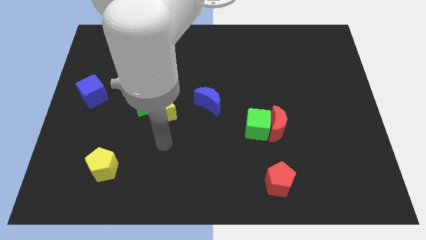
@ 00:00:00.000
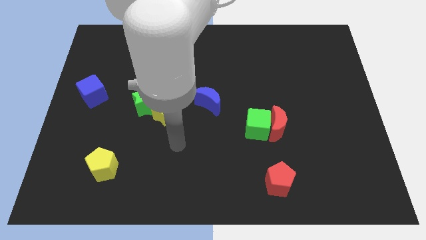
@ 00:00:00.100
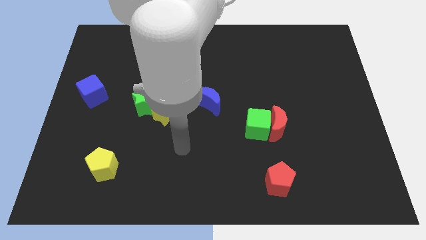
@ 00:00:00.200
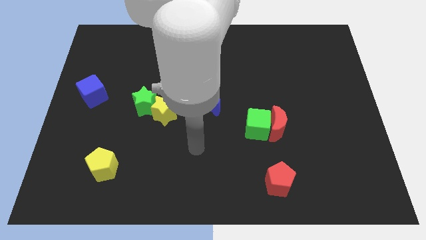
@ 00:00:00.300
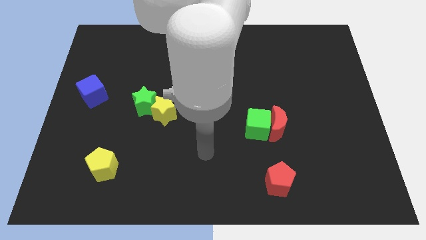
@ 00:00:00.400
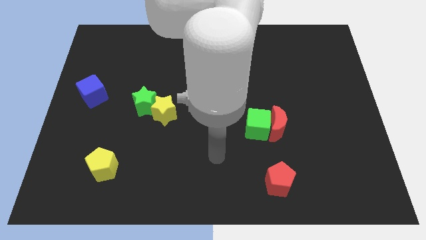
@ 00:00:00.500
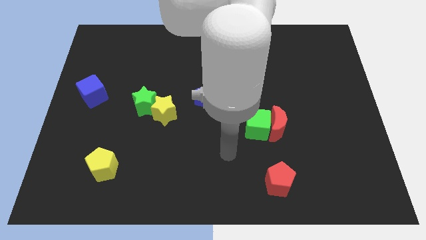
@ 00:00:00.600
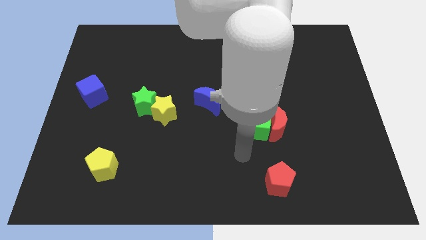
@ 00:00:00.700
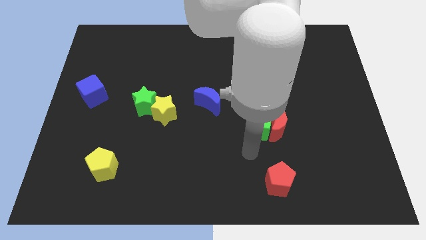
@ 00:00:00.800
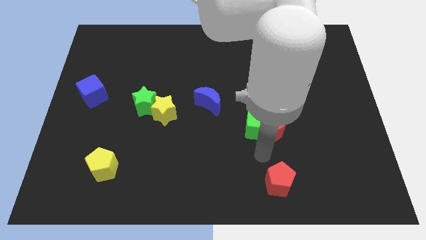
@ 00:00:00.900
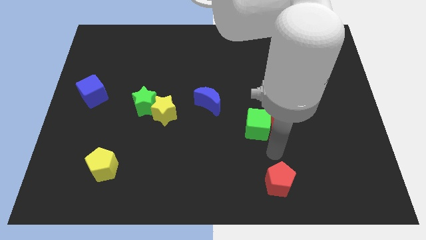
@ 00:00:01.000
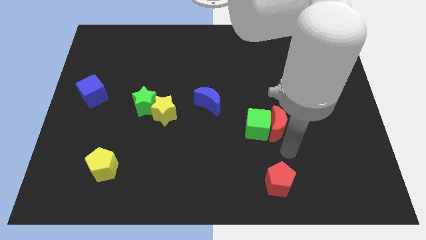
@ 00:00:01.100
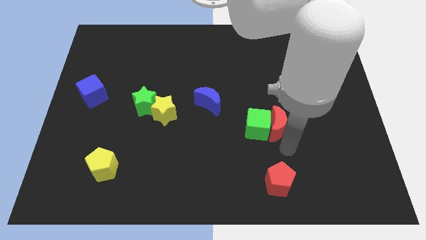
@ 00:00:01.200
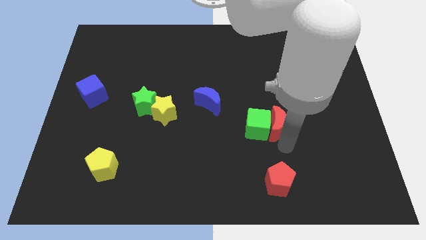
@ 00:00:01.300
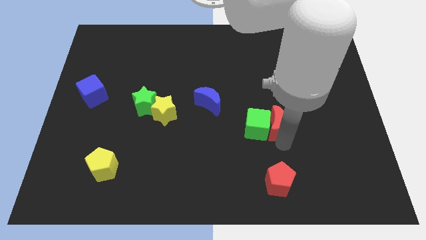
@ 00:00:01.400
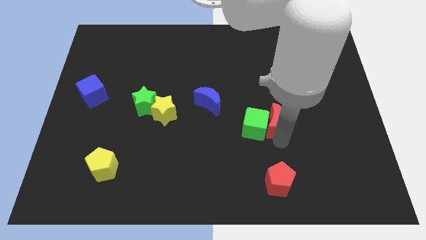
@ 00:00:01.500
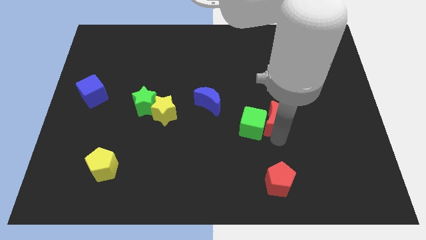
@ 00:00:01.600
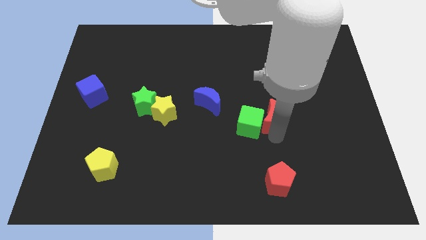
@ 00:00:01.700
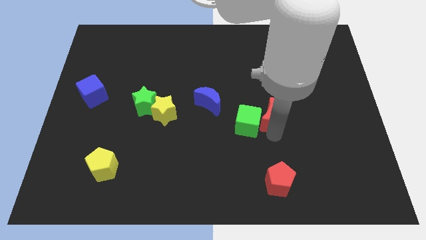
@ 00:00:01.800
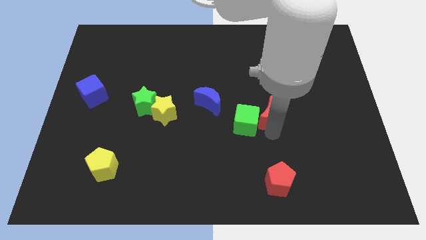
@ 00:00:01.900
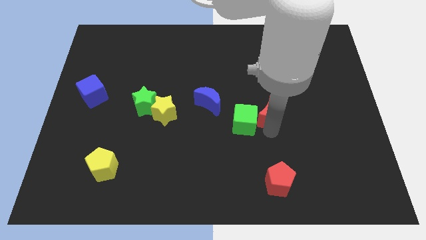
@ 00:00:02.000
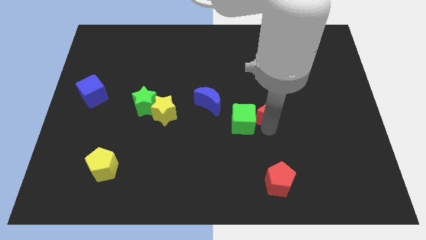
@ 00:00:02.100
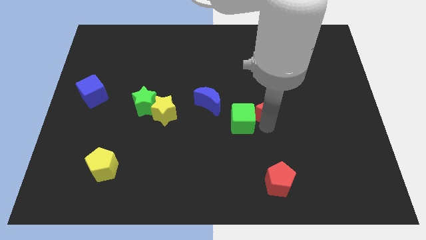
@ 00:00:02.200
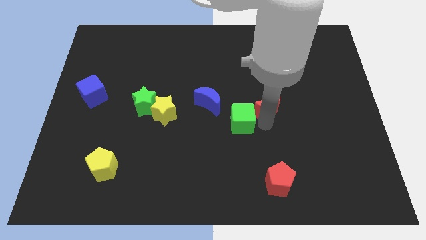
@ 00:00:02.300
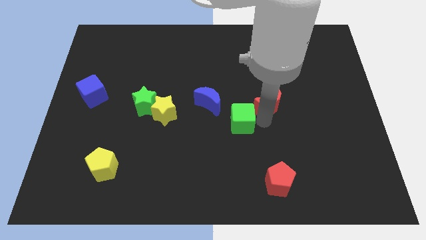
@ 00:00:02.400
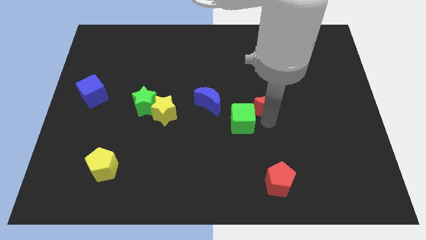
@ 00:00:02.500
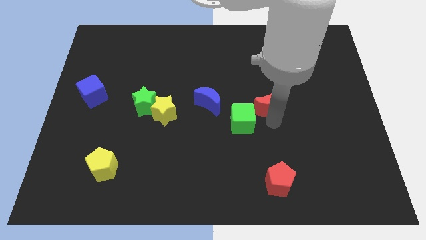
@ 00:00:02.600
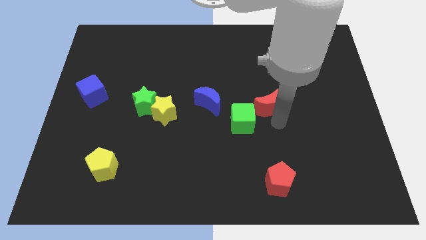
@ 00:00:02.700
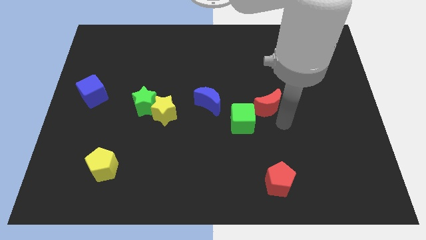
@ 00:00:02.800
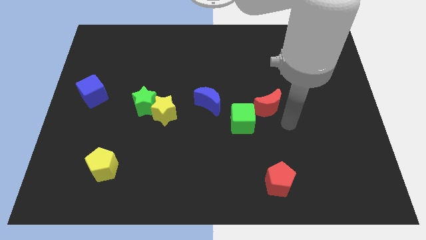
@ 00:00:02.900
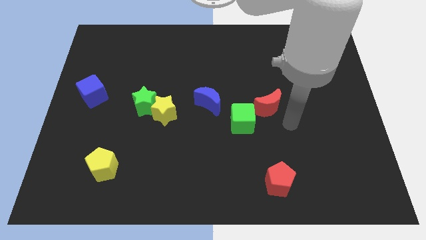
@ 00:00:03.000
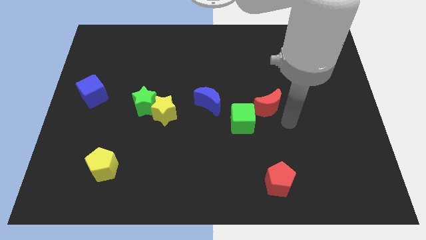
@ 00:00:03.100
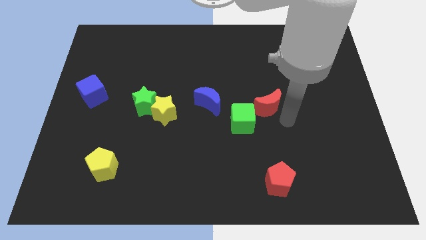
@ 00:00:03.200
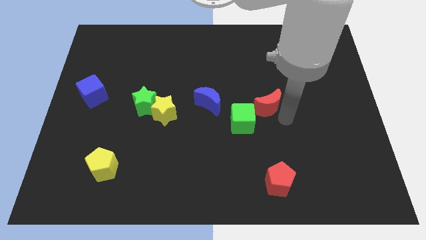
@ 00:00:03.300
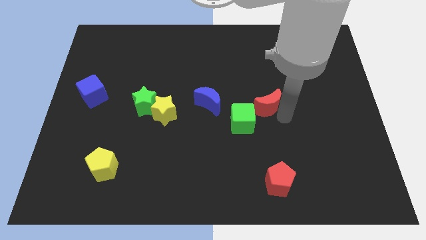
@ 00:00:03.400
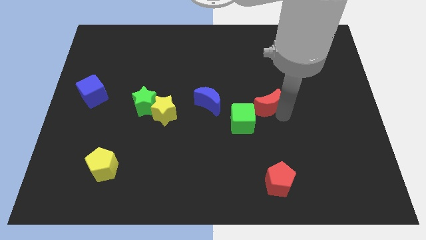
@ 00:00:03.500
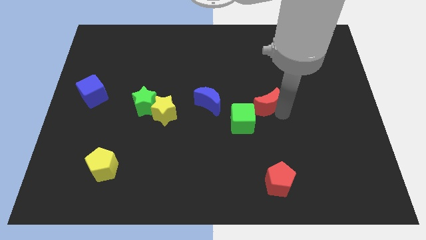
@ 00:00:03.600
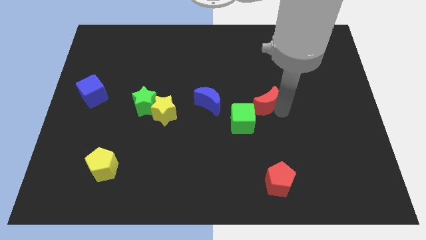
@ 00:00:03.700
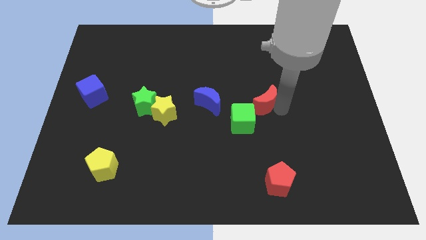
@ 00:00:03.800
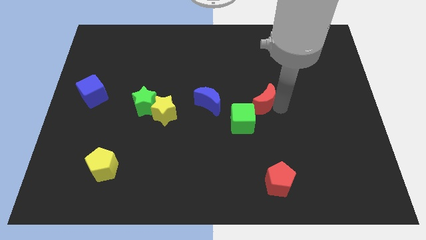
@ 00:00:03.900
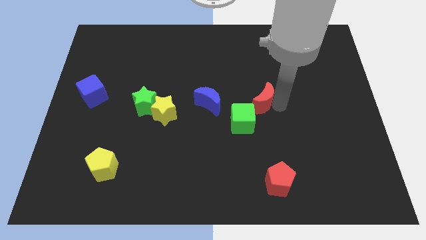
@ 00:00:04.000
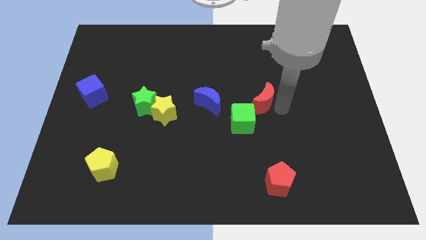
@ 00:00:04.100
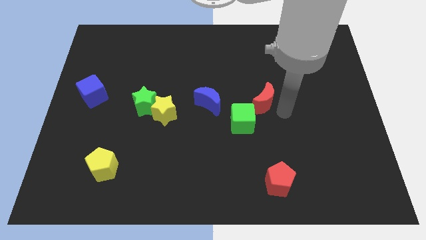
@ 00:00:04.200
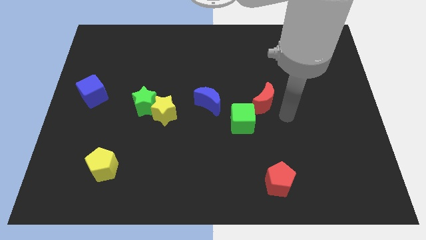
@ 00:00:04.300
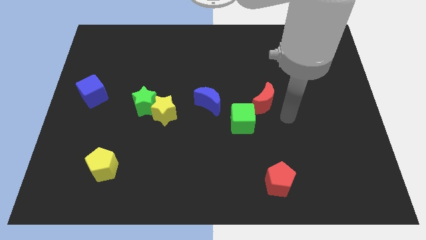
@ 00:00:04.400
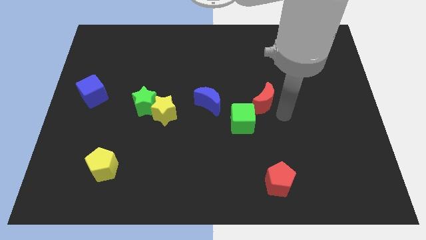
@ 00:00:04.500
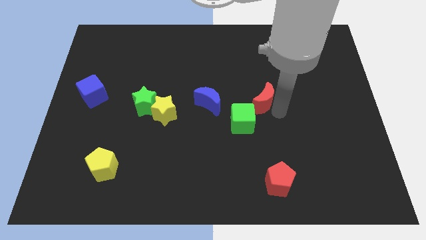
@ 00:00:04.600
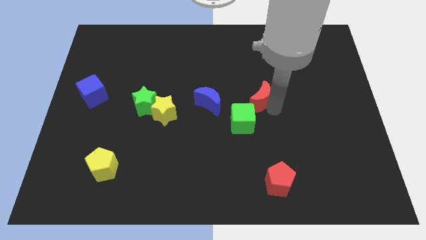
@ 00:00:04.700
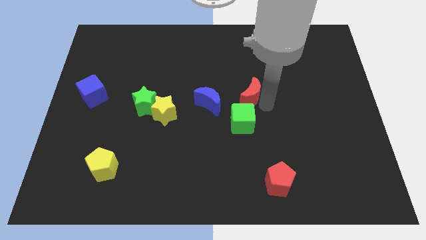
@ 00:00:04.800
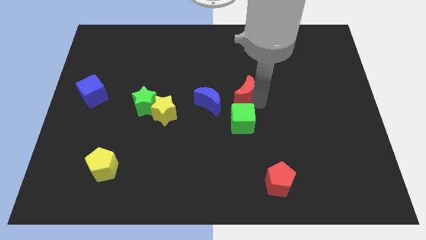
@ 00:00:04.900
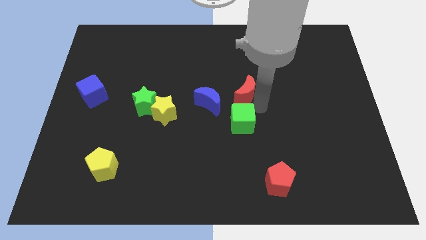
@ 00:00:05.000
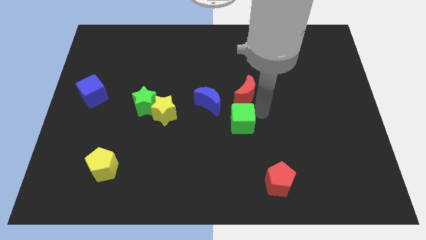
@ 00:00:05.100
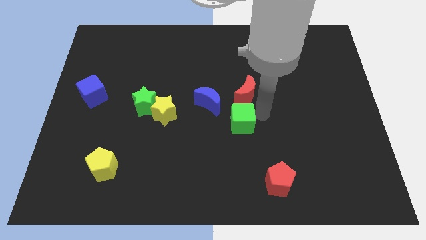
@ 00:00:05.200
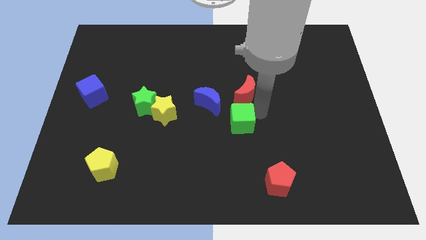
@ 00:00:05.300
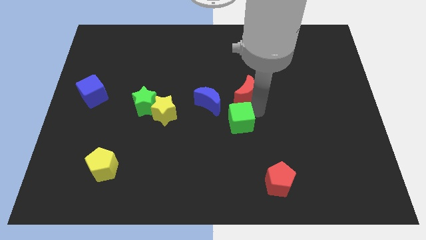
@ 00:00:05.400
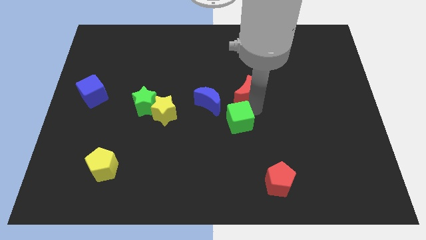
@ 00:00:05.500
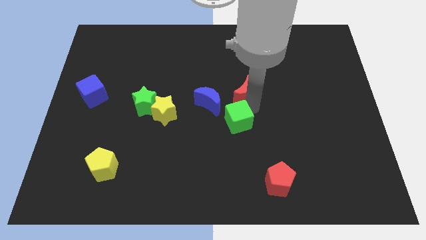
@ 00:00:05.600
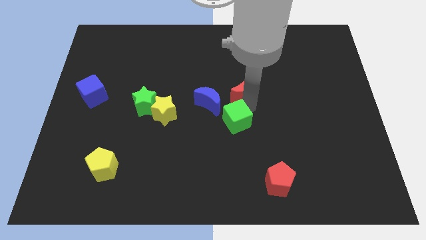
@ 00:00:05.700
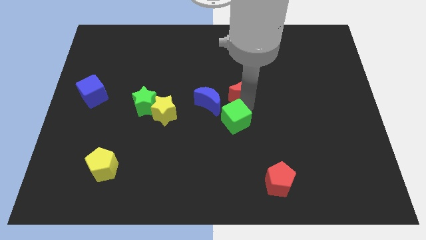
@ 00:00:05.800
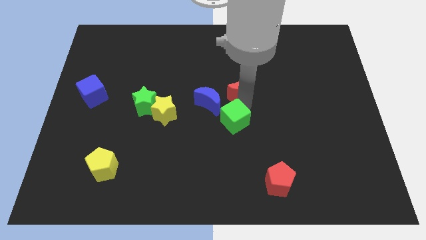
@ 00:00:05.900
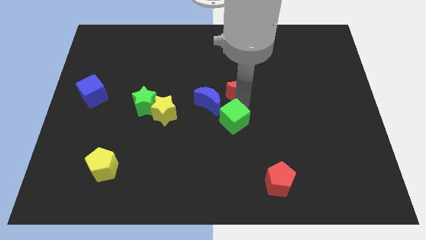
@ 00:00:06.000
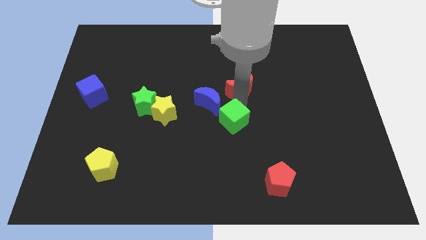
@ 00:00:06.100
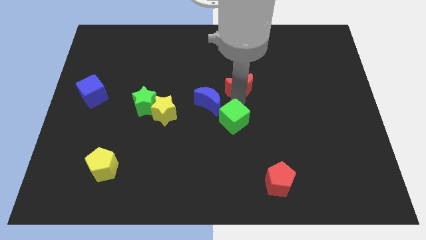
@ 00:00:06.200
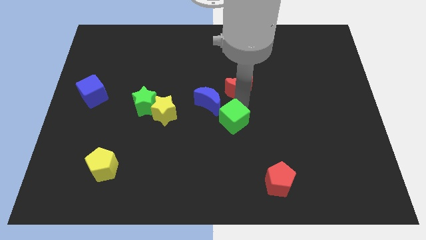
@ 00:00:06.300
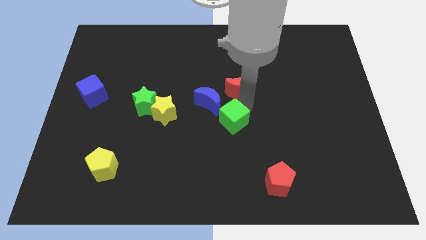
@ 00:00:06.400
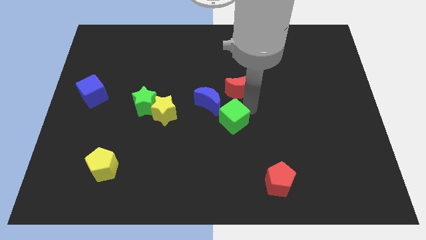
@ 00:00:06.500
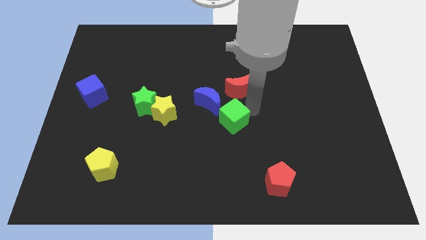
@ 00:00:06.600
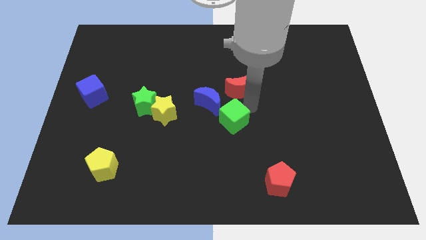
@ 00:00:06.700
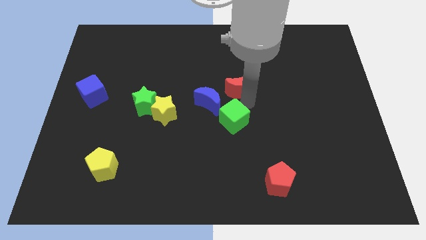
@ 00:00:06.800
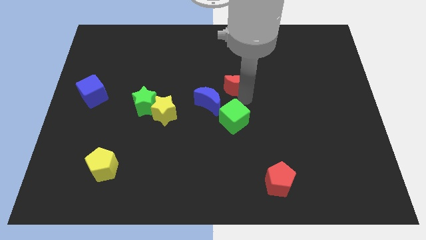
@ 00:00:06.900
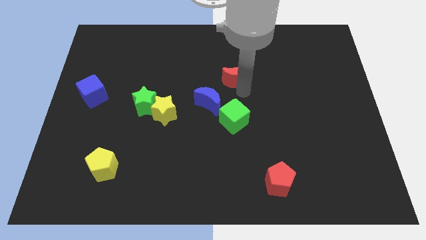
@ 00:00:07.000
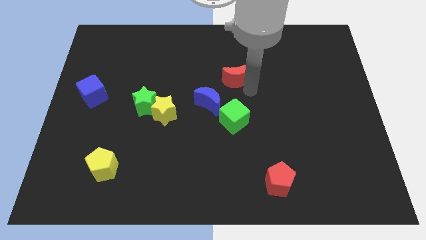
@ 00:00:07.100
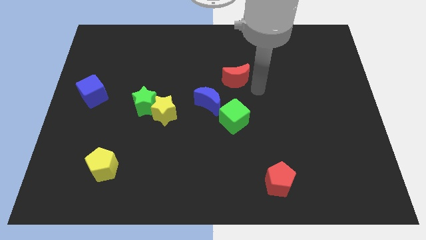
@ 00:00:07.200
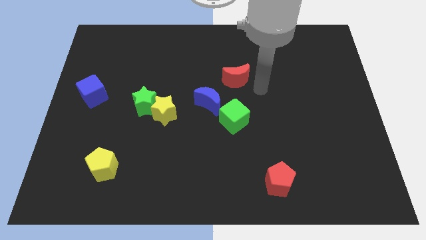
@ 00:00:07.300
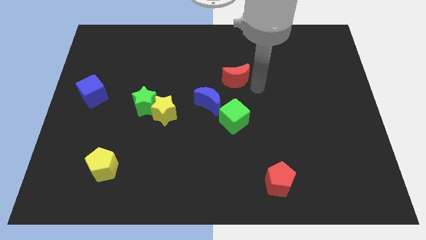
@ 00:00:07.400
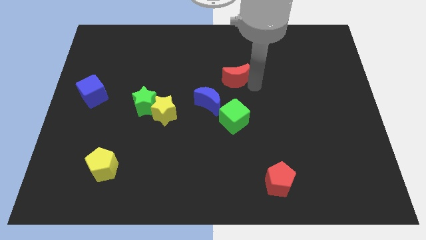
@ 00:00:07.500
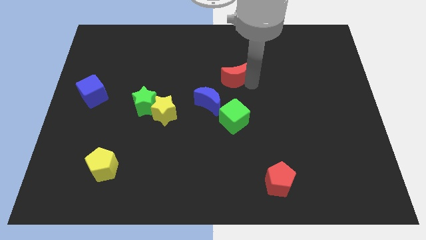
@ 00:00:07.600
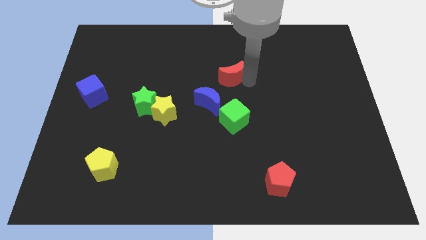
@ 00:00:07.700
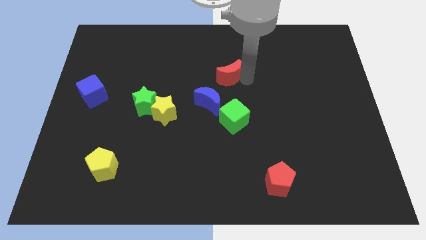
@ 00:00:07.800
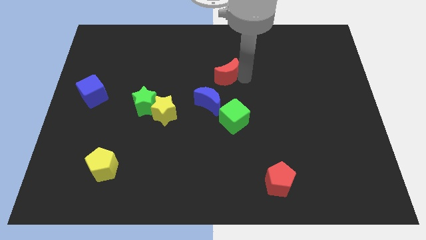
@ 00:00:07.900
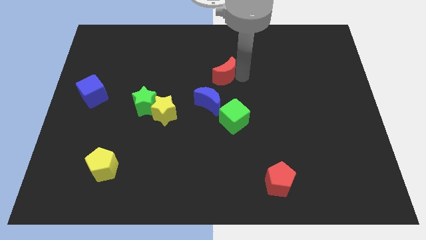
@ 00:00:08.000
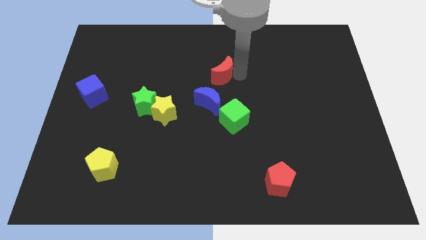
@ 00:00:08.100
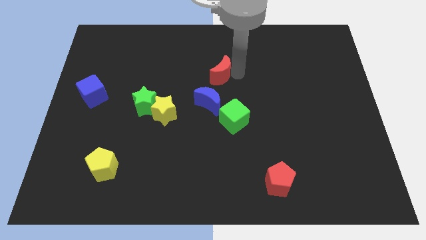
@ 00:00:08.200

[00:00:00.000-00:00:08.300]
move the red moon up and left
